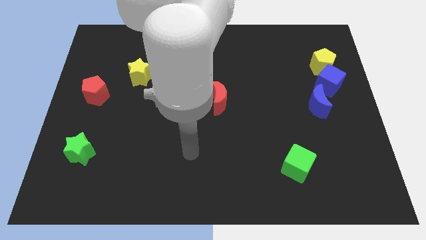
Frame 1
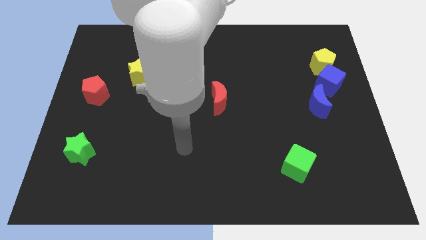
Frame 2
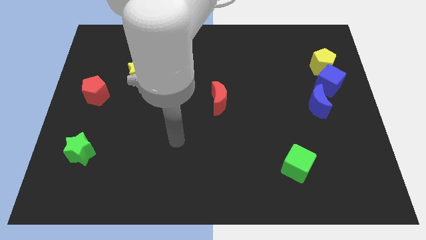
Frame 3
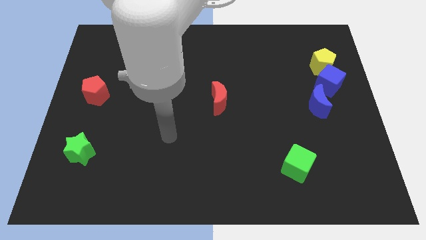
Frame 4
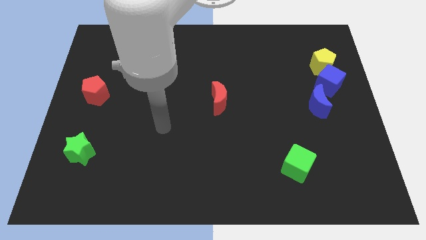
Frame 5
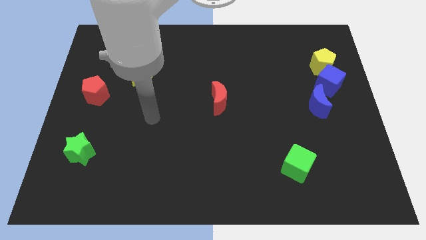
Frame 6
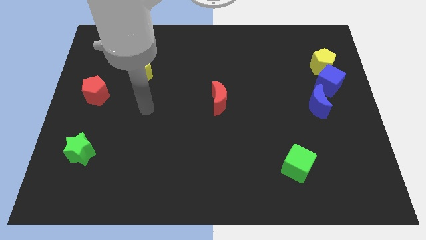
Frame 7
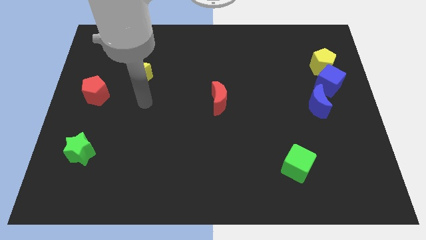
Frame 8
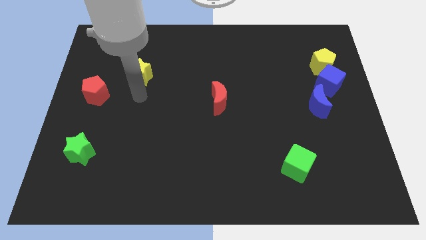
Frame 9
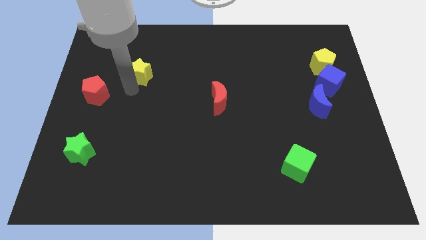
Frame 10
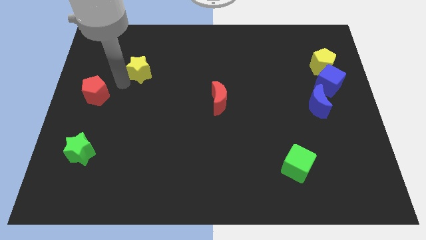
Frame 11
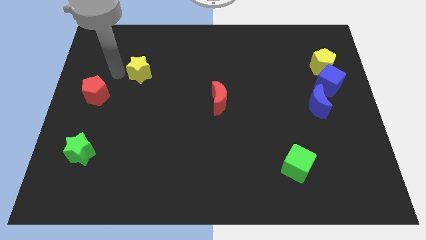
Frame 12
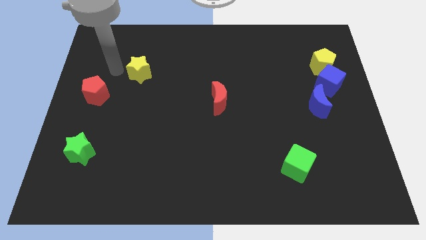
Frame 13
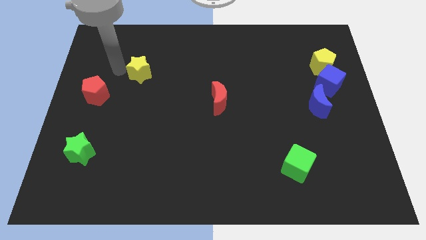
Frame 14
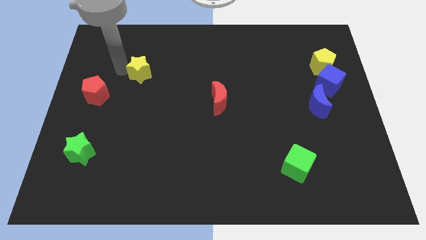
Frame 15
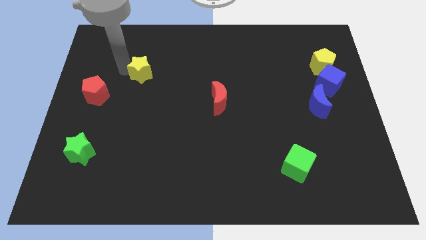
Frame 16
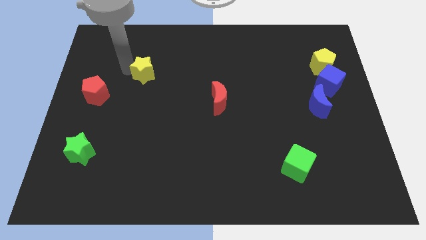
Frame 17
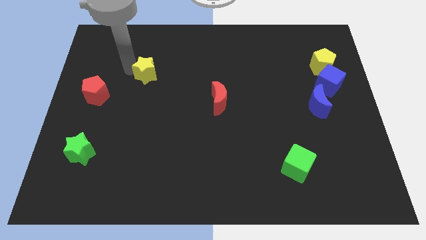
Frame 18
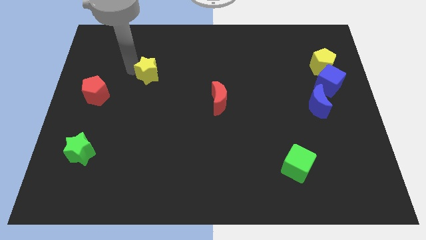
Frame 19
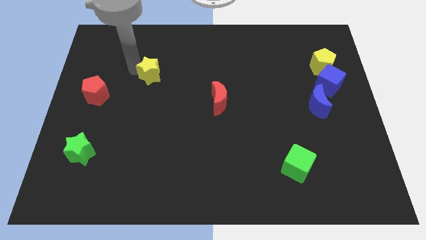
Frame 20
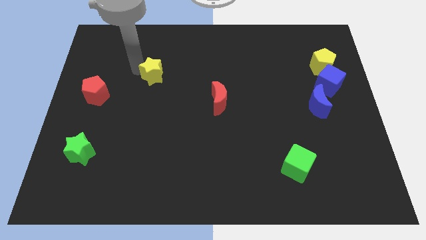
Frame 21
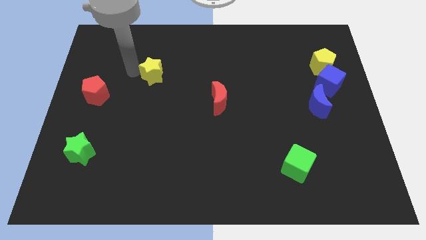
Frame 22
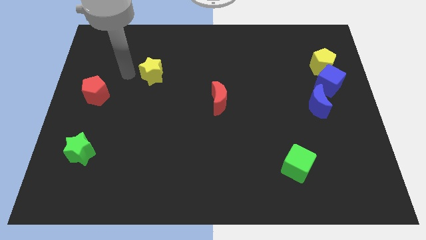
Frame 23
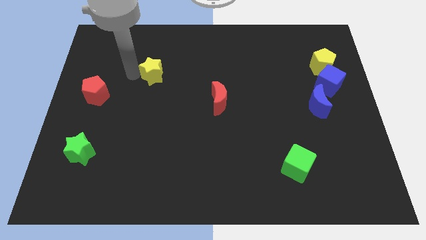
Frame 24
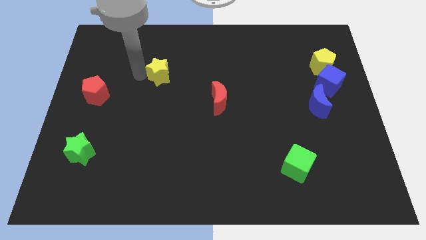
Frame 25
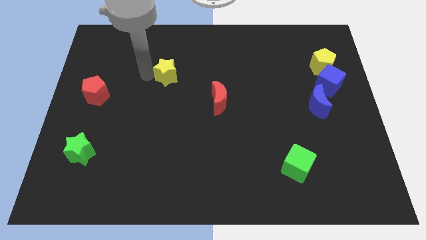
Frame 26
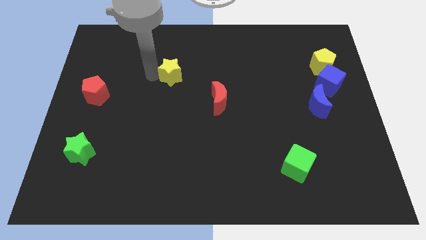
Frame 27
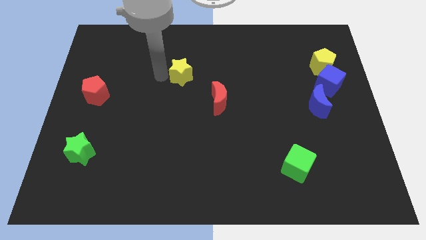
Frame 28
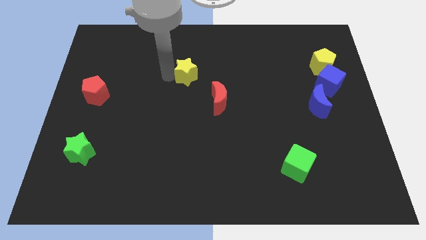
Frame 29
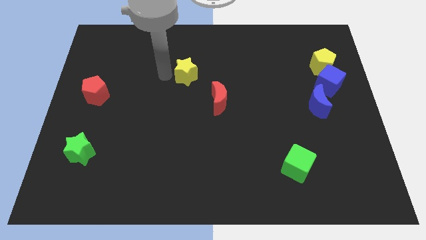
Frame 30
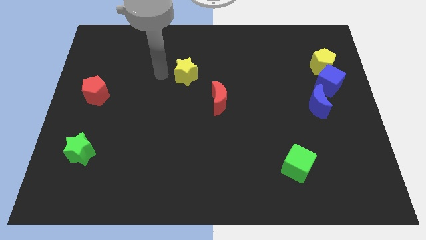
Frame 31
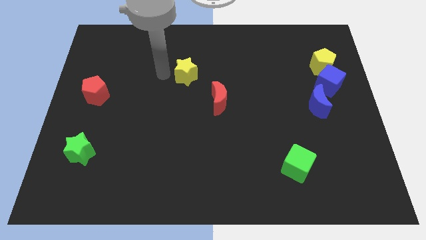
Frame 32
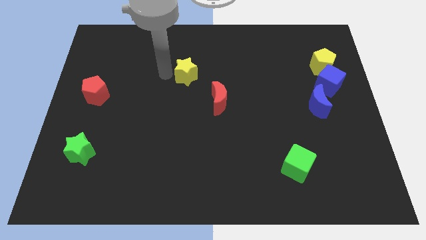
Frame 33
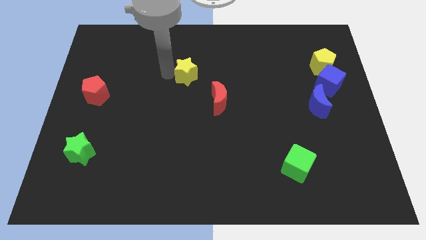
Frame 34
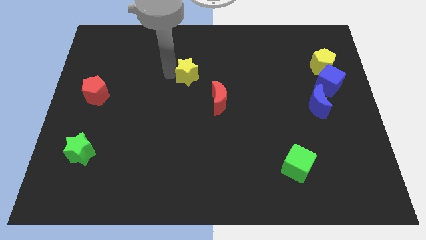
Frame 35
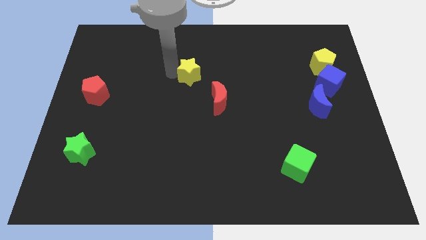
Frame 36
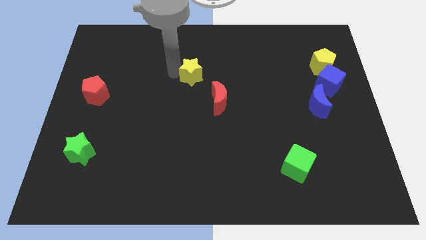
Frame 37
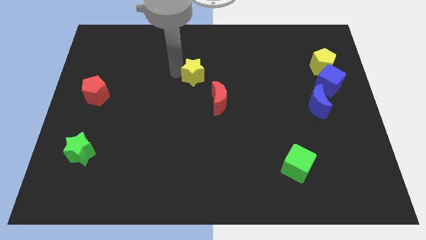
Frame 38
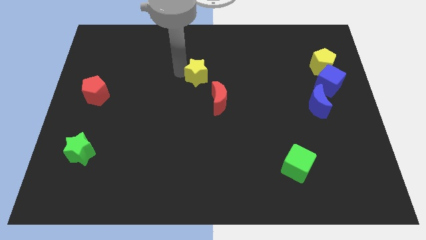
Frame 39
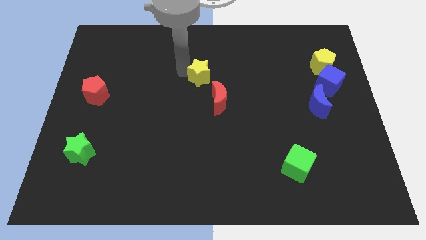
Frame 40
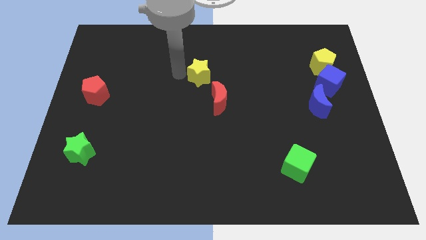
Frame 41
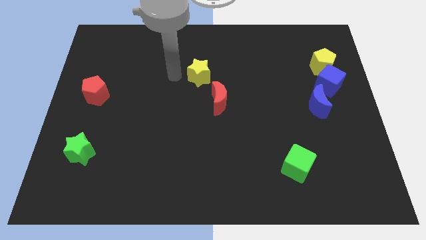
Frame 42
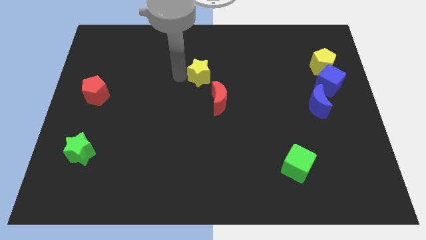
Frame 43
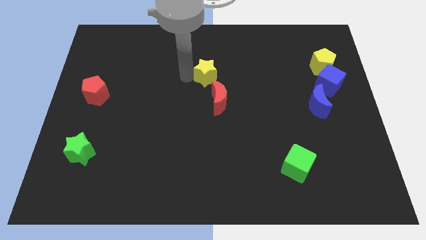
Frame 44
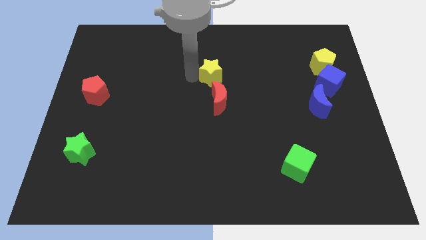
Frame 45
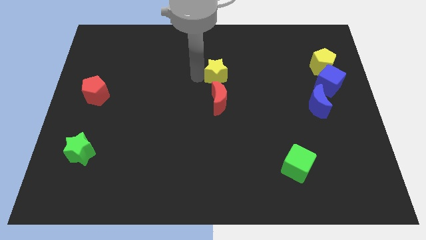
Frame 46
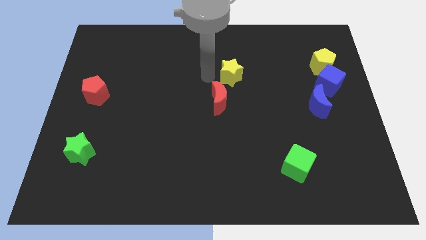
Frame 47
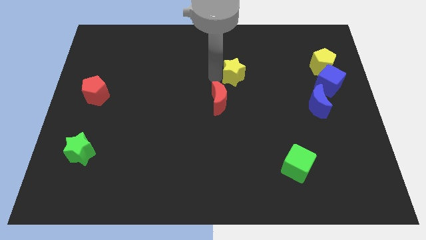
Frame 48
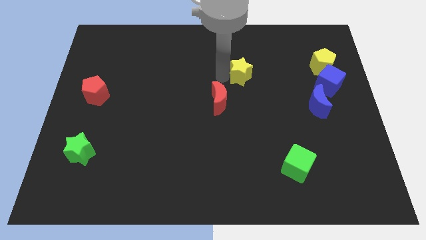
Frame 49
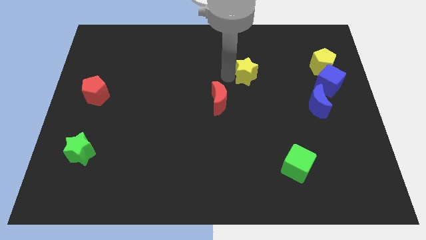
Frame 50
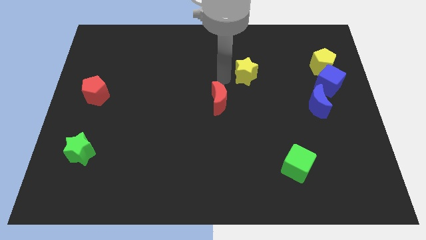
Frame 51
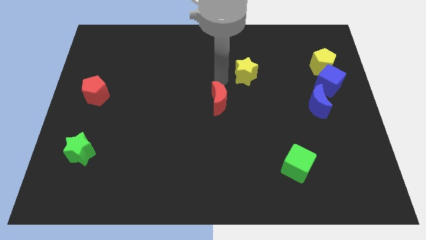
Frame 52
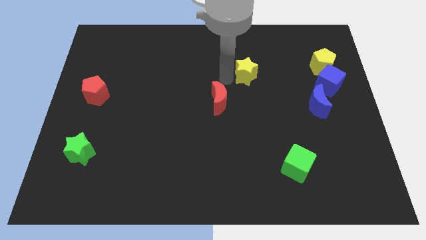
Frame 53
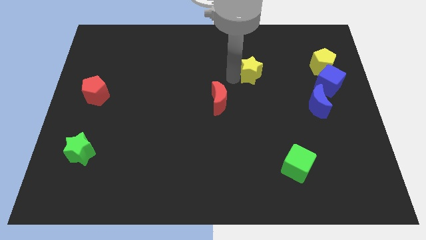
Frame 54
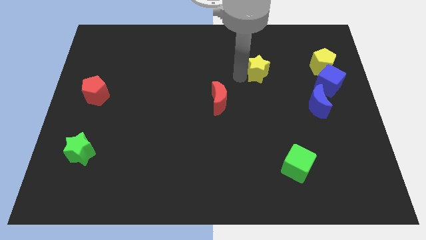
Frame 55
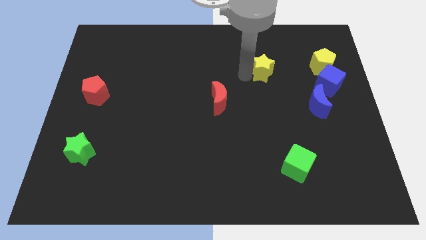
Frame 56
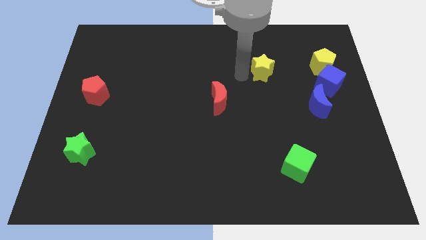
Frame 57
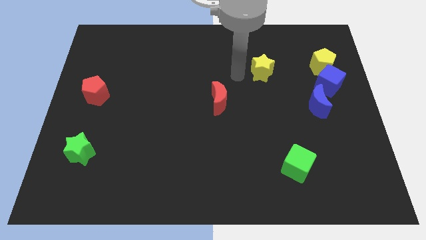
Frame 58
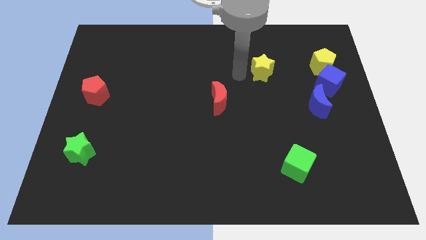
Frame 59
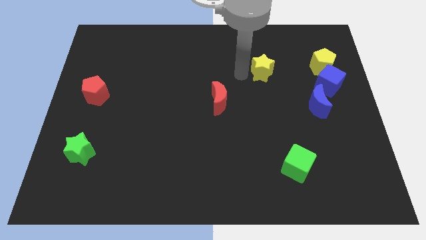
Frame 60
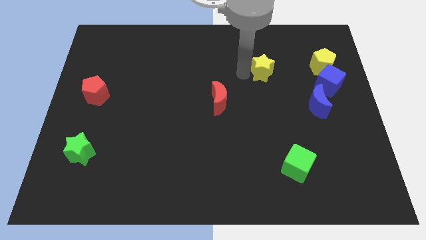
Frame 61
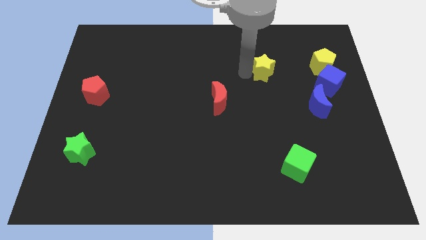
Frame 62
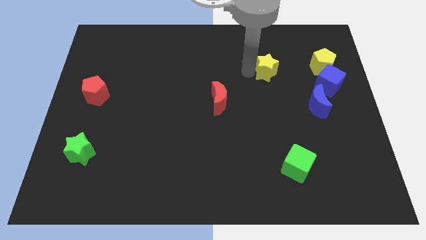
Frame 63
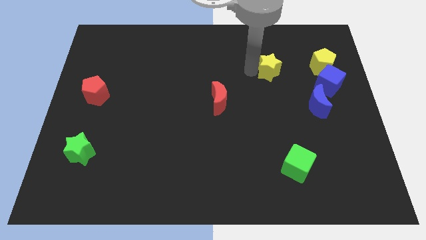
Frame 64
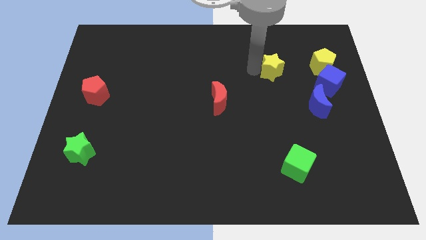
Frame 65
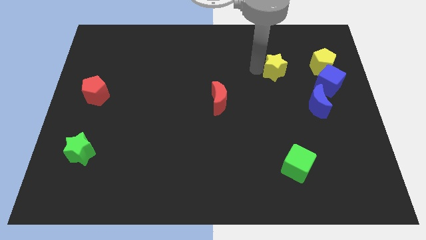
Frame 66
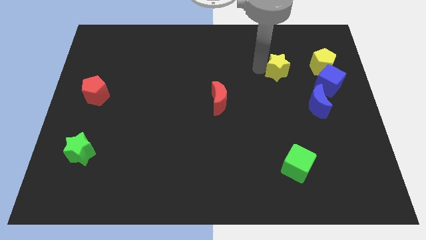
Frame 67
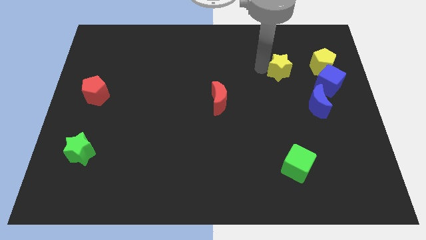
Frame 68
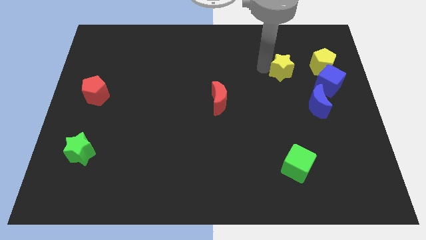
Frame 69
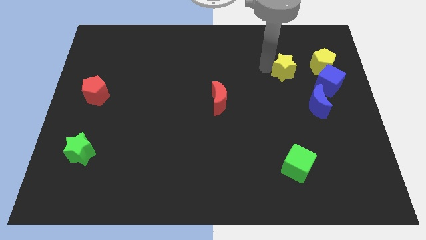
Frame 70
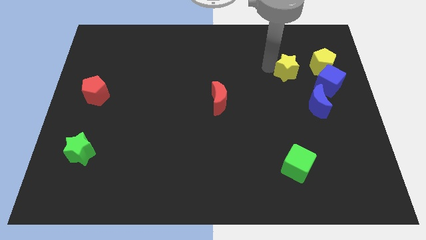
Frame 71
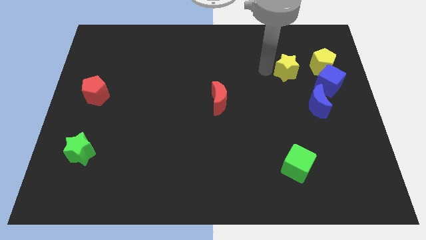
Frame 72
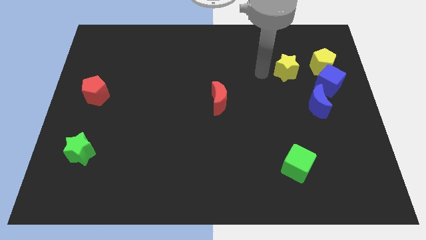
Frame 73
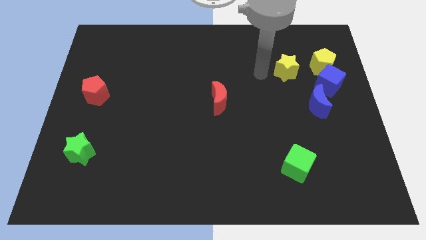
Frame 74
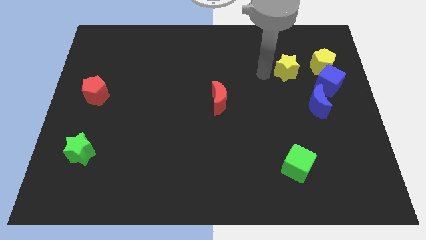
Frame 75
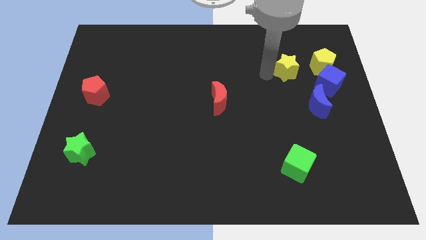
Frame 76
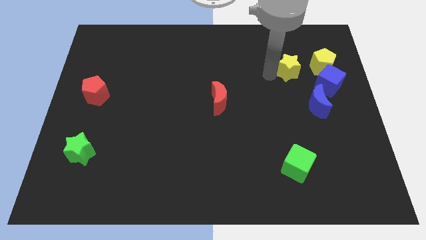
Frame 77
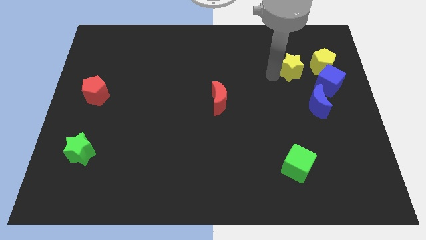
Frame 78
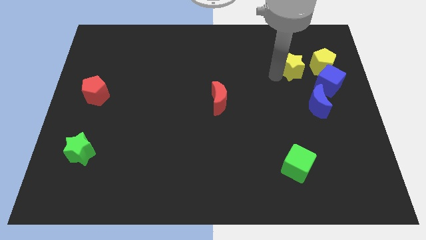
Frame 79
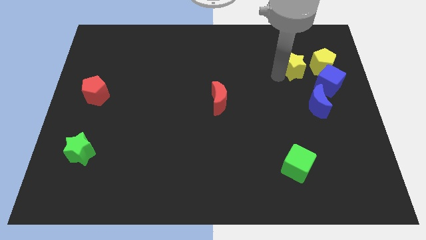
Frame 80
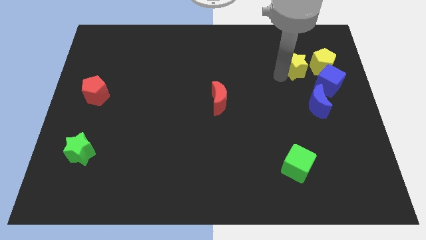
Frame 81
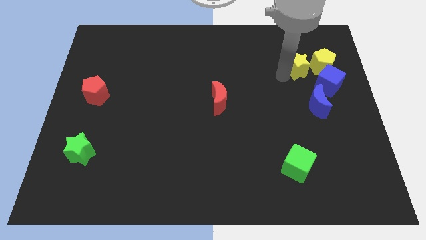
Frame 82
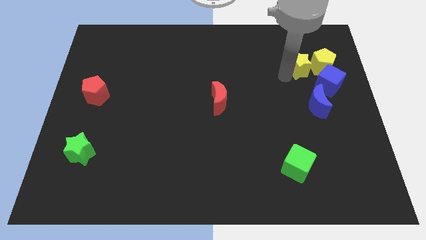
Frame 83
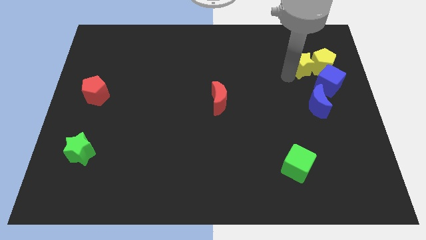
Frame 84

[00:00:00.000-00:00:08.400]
move the yellow star to the yellow pentagon
